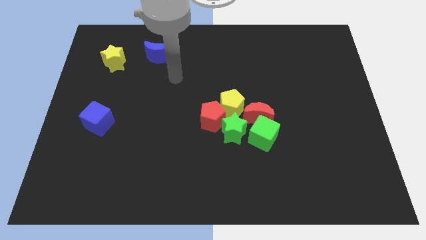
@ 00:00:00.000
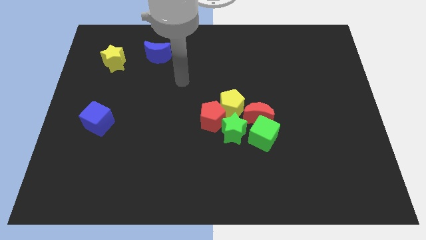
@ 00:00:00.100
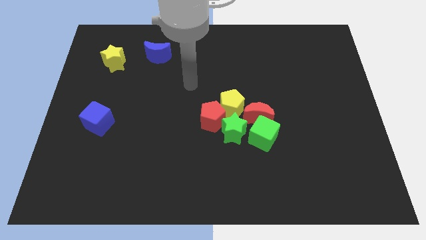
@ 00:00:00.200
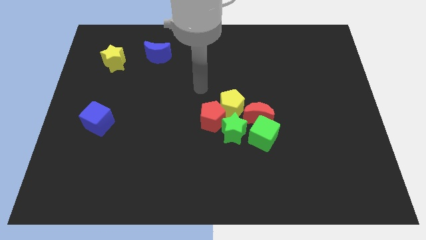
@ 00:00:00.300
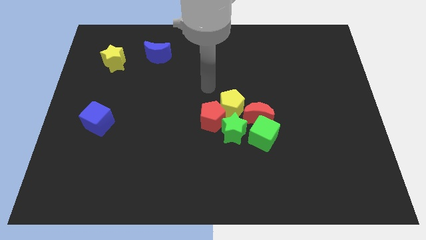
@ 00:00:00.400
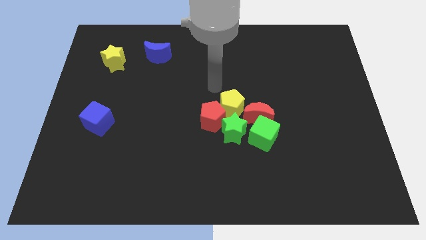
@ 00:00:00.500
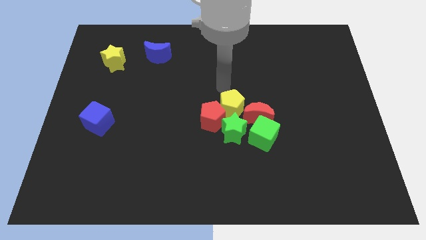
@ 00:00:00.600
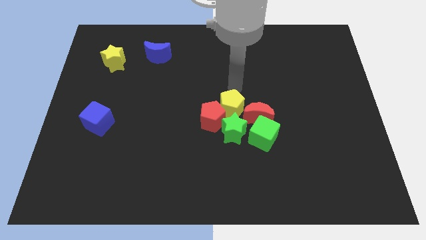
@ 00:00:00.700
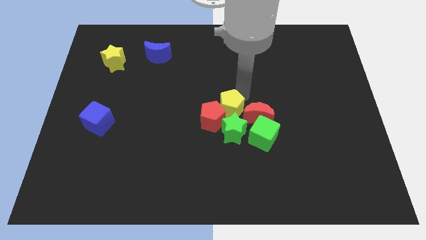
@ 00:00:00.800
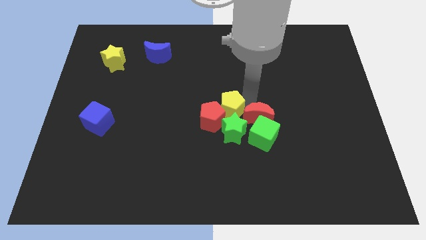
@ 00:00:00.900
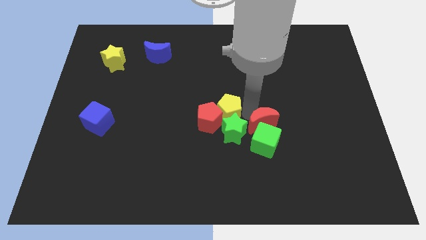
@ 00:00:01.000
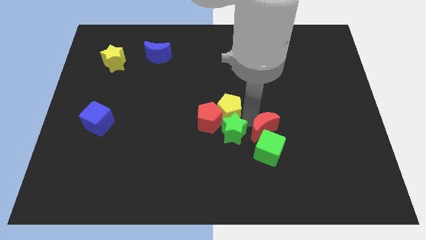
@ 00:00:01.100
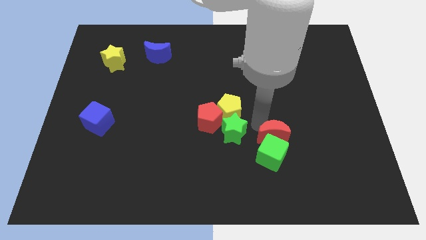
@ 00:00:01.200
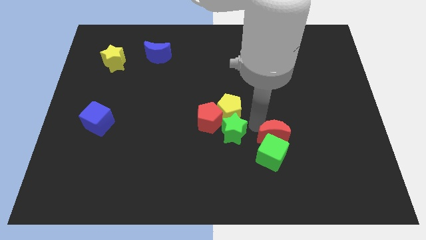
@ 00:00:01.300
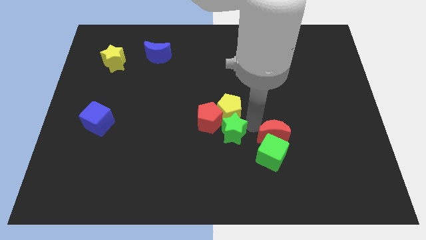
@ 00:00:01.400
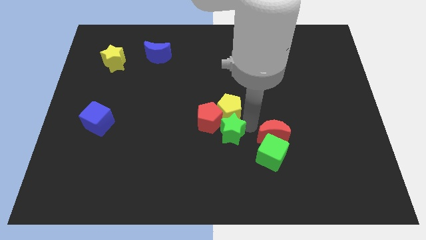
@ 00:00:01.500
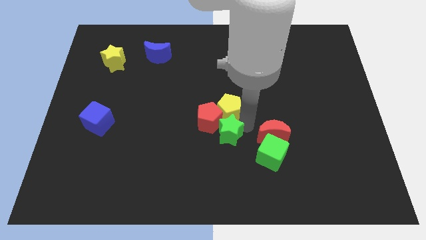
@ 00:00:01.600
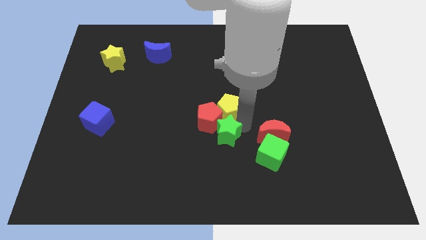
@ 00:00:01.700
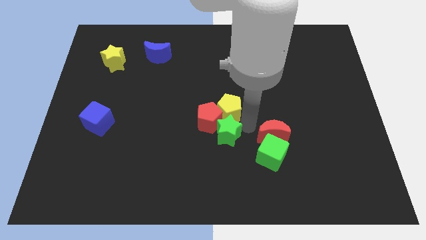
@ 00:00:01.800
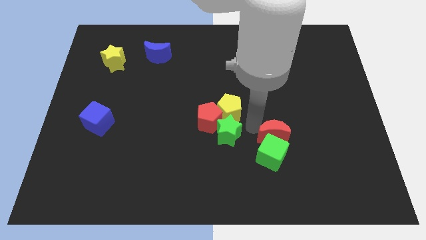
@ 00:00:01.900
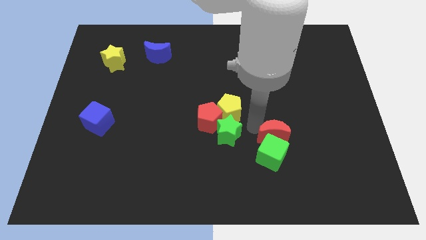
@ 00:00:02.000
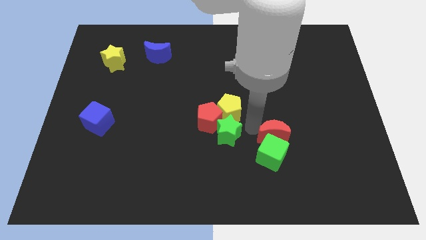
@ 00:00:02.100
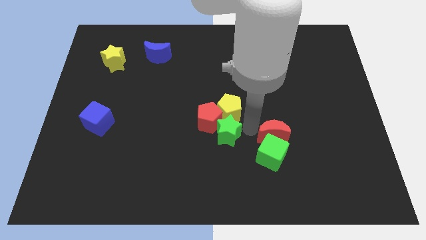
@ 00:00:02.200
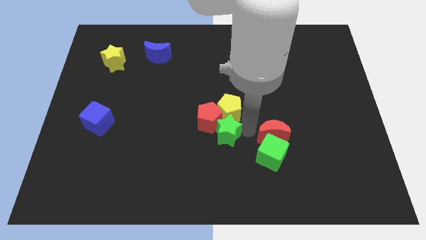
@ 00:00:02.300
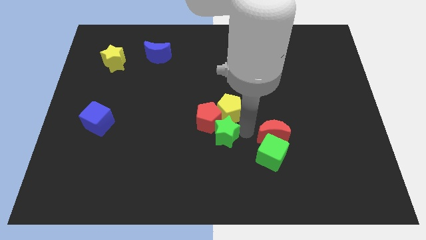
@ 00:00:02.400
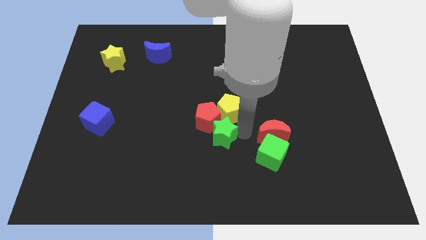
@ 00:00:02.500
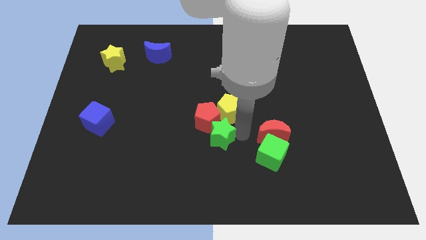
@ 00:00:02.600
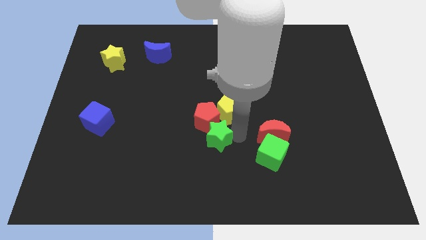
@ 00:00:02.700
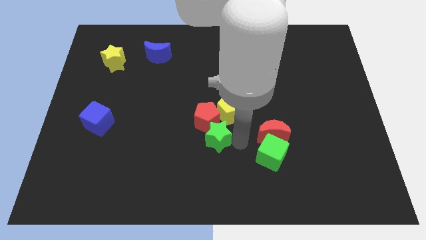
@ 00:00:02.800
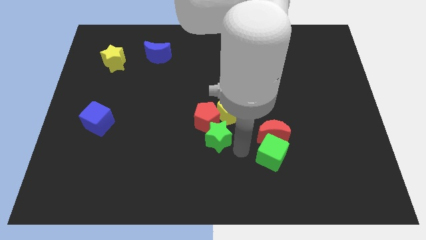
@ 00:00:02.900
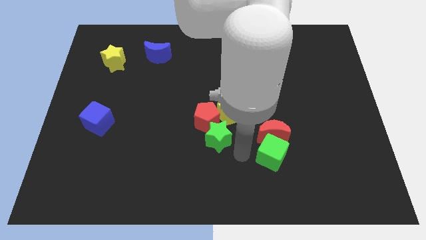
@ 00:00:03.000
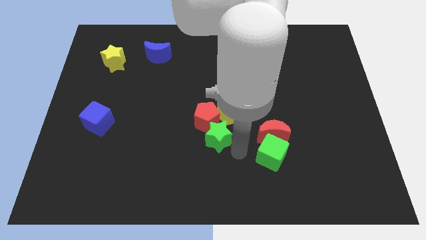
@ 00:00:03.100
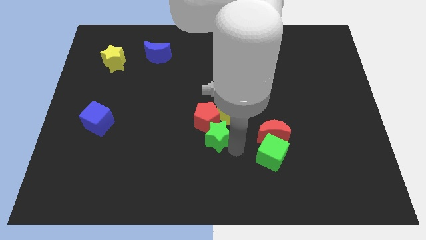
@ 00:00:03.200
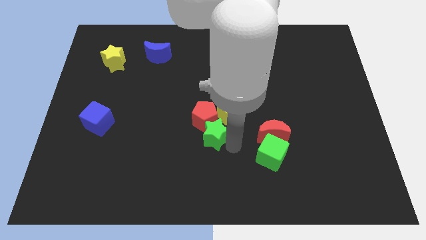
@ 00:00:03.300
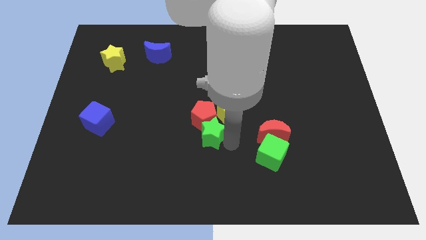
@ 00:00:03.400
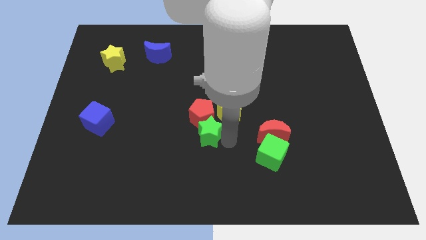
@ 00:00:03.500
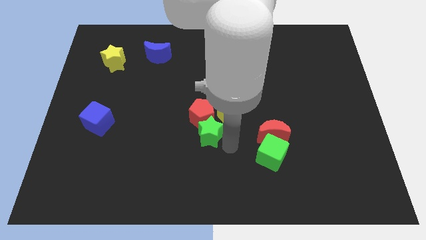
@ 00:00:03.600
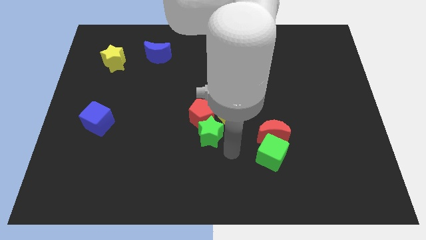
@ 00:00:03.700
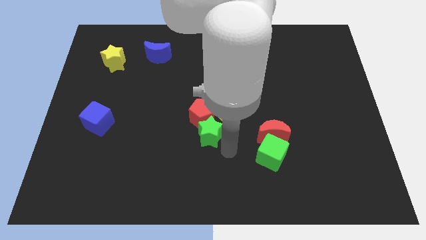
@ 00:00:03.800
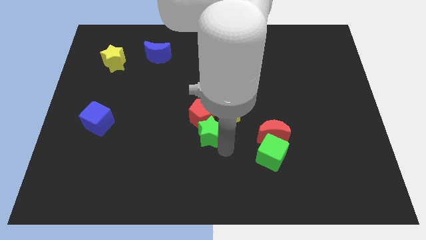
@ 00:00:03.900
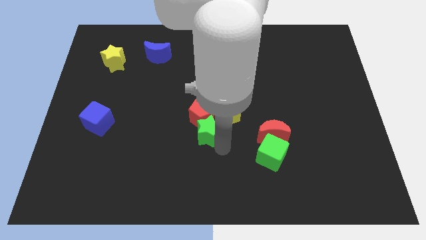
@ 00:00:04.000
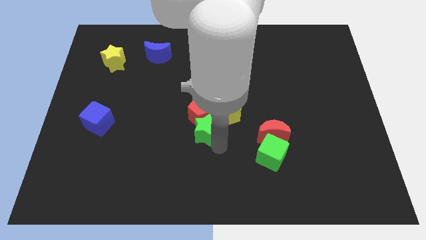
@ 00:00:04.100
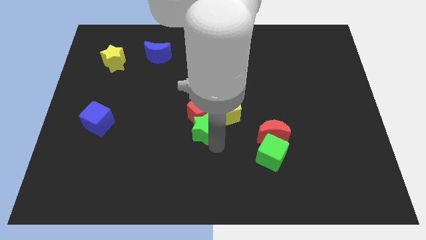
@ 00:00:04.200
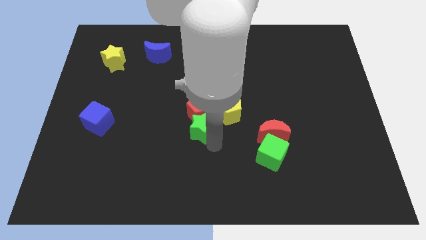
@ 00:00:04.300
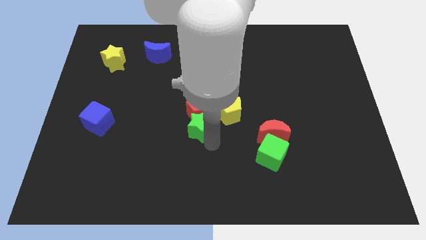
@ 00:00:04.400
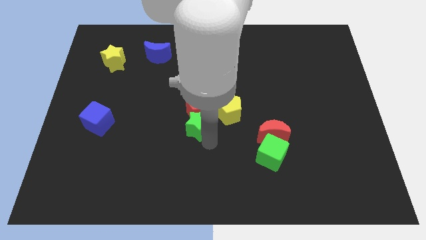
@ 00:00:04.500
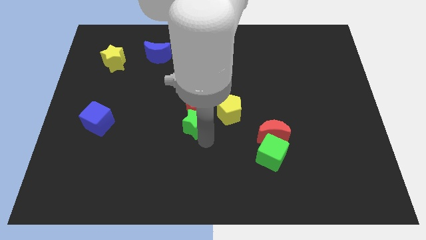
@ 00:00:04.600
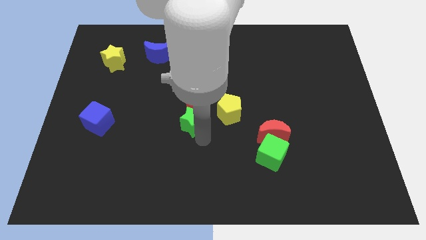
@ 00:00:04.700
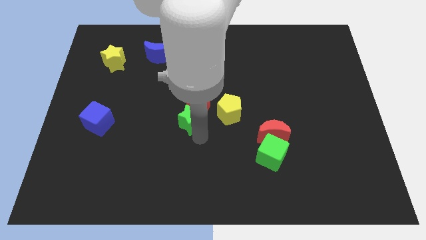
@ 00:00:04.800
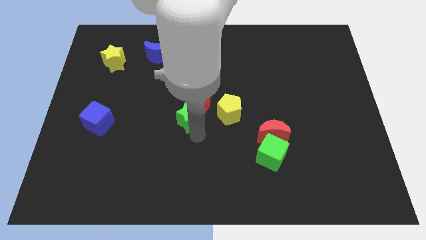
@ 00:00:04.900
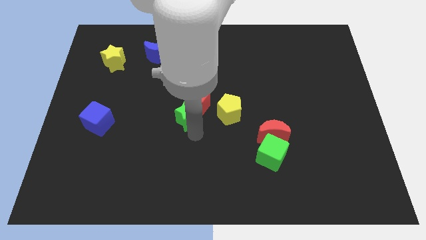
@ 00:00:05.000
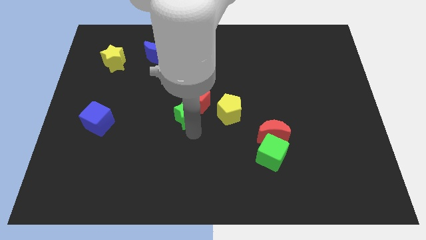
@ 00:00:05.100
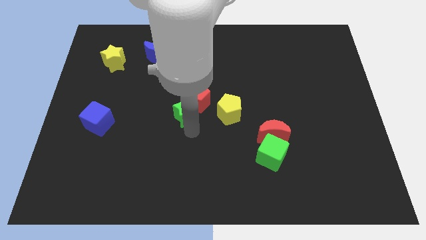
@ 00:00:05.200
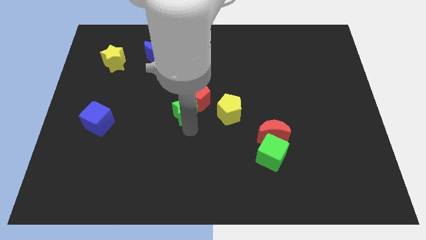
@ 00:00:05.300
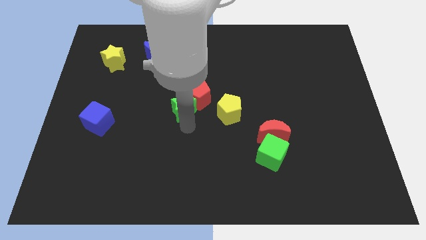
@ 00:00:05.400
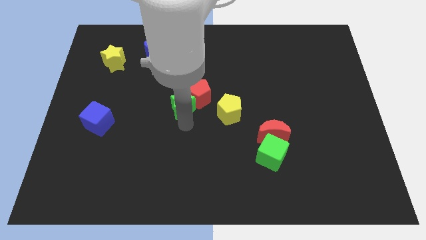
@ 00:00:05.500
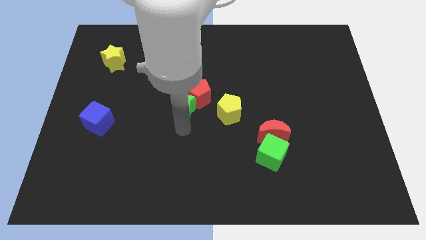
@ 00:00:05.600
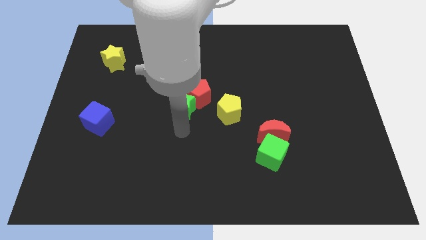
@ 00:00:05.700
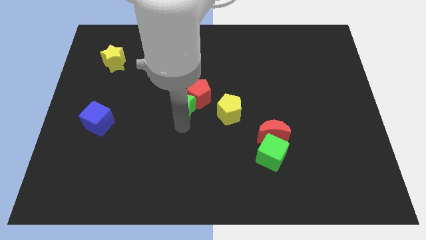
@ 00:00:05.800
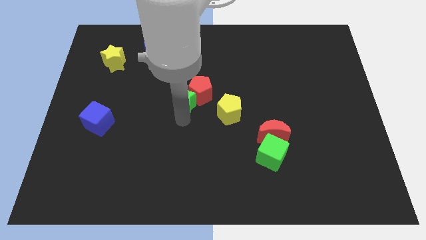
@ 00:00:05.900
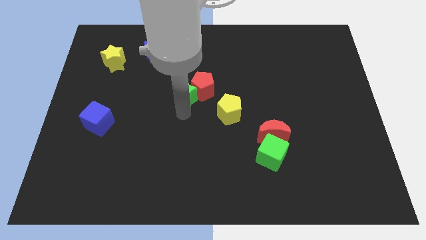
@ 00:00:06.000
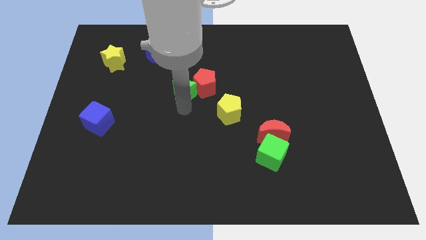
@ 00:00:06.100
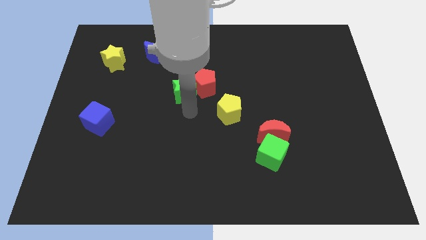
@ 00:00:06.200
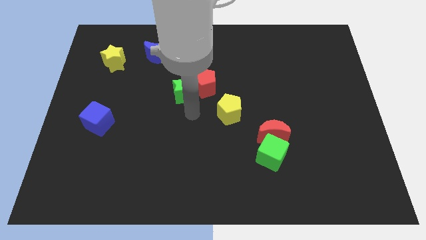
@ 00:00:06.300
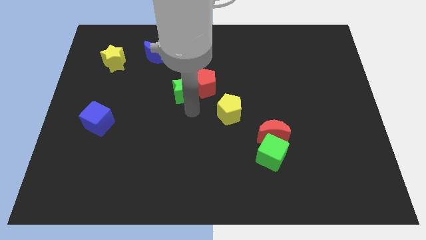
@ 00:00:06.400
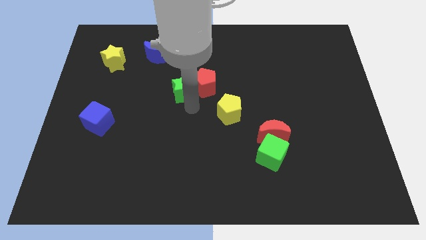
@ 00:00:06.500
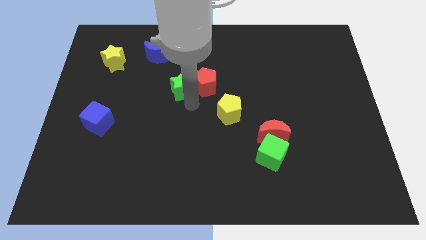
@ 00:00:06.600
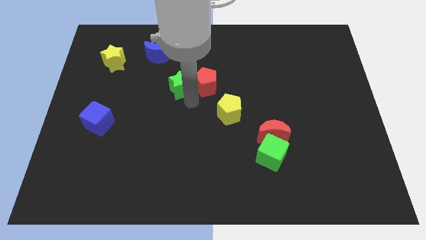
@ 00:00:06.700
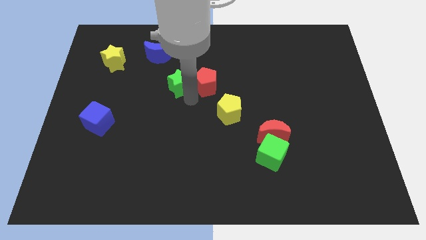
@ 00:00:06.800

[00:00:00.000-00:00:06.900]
push the green star to the bottom right side of the blue moon
